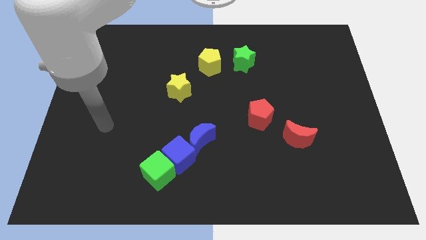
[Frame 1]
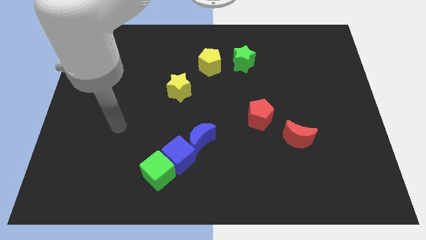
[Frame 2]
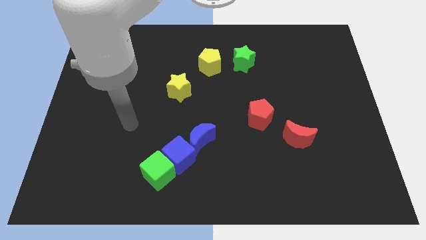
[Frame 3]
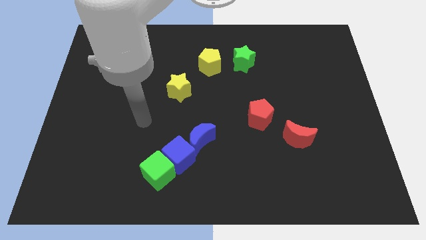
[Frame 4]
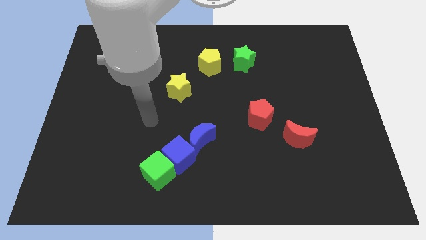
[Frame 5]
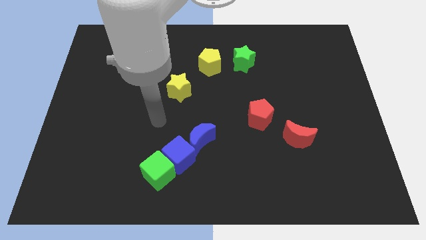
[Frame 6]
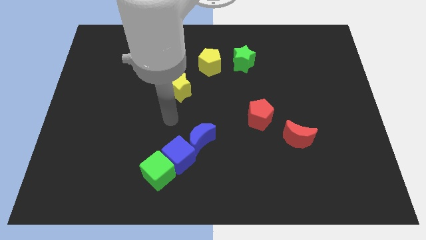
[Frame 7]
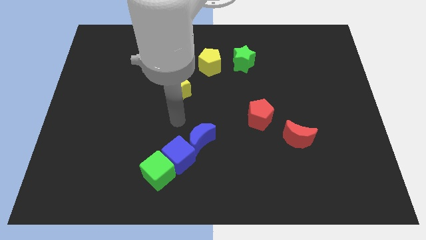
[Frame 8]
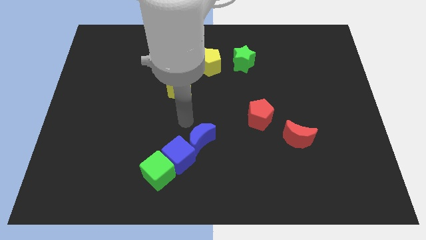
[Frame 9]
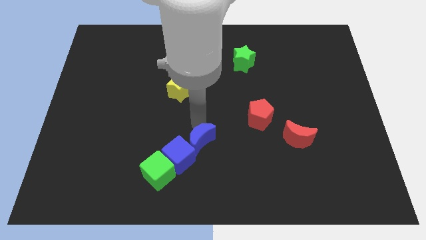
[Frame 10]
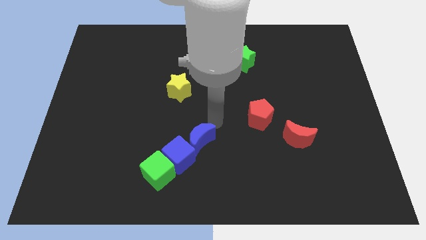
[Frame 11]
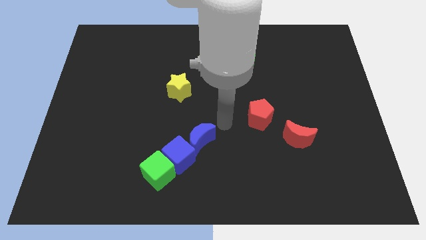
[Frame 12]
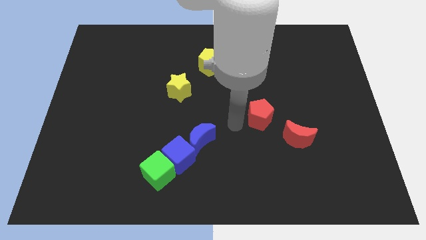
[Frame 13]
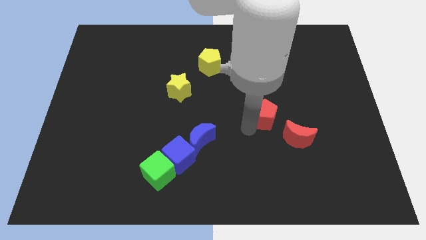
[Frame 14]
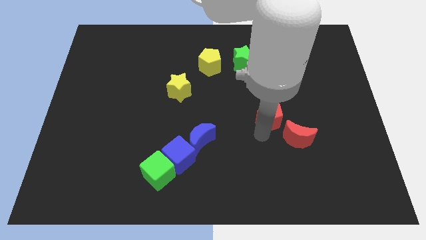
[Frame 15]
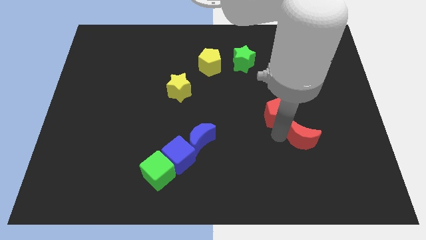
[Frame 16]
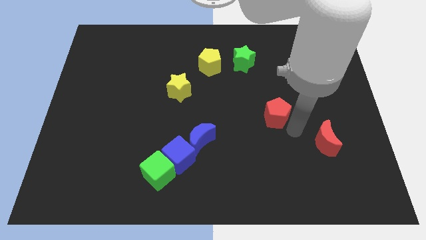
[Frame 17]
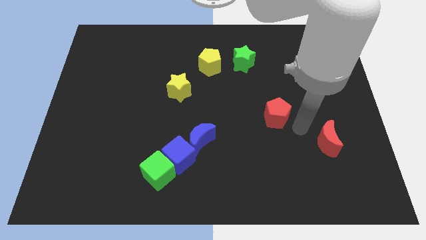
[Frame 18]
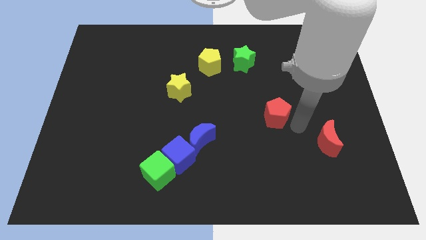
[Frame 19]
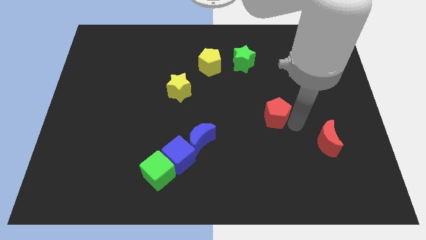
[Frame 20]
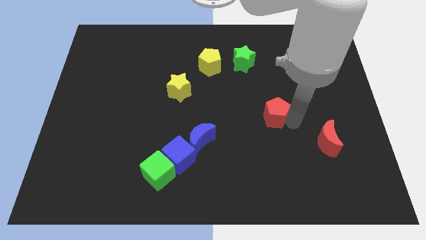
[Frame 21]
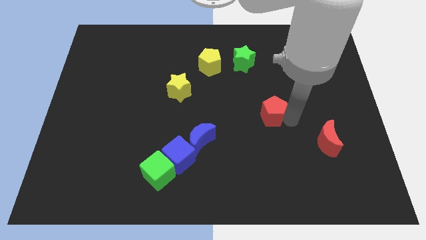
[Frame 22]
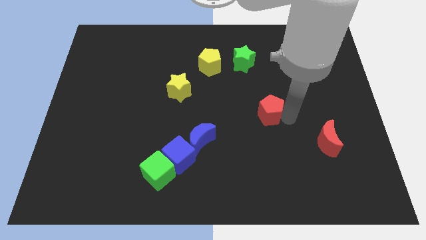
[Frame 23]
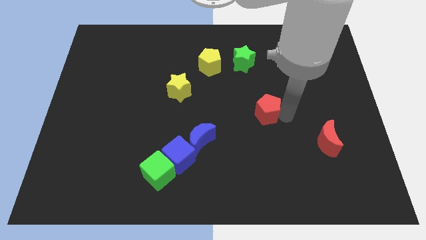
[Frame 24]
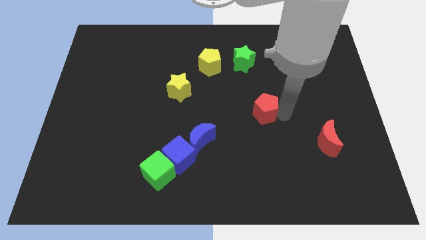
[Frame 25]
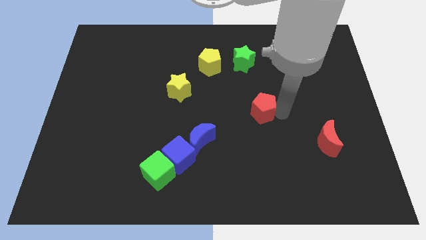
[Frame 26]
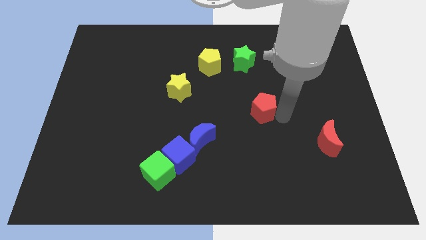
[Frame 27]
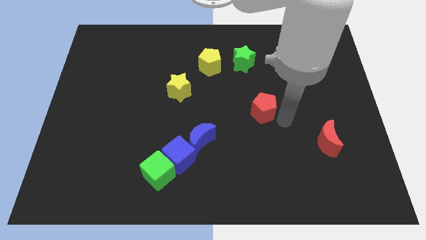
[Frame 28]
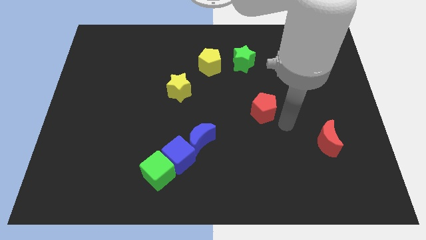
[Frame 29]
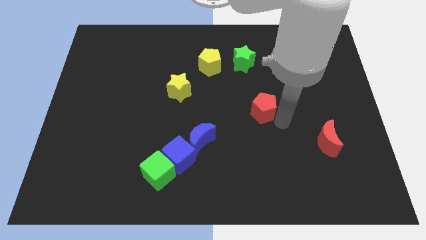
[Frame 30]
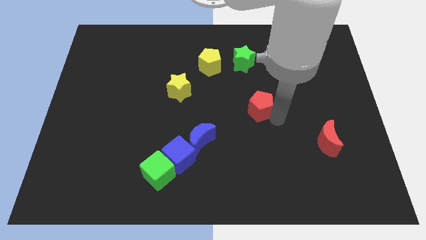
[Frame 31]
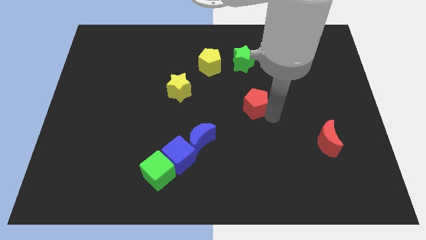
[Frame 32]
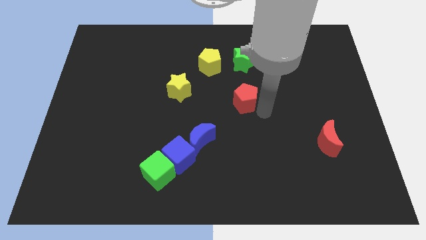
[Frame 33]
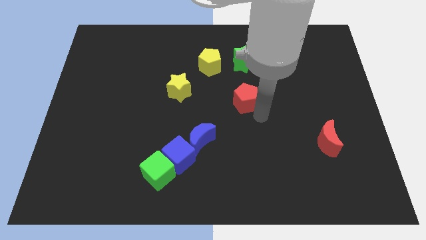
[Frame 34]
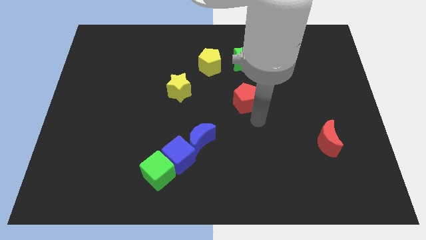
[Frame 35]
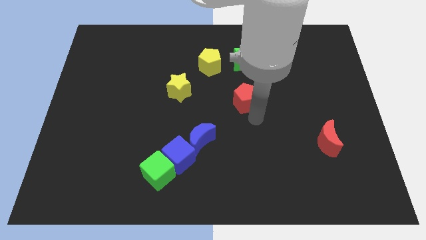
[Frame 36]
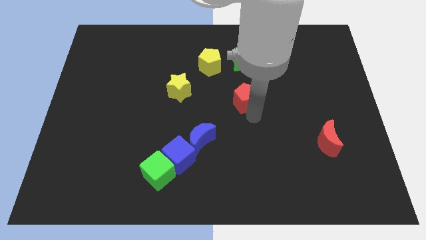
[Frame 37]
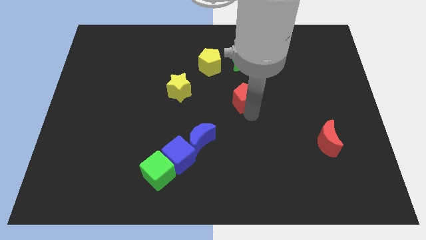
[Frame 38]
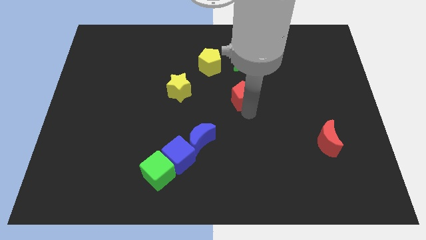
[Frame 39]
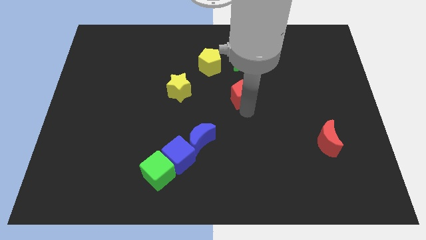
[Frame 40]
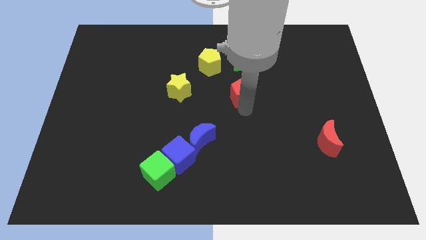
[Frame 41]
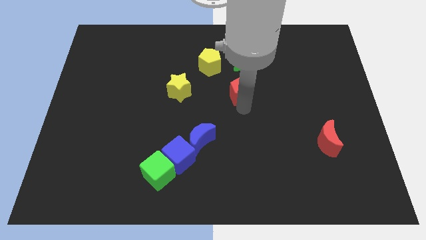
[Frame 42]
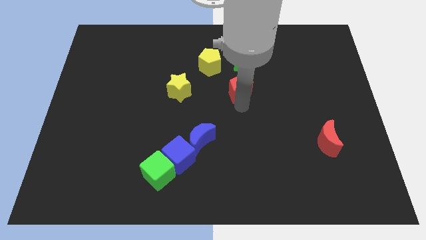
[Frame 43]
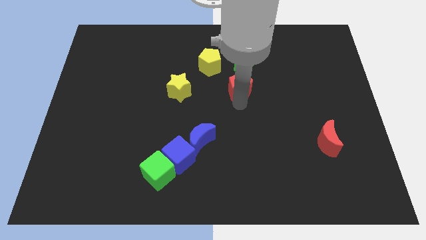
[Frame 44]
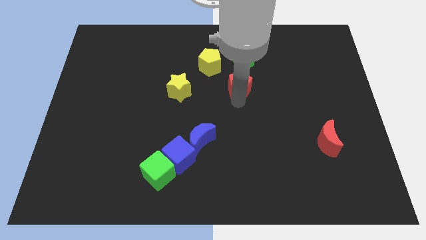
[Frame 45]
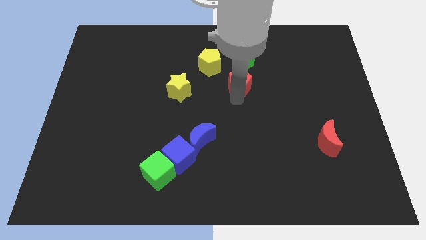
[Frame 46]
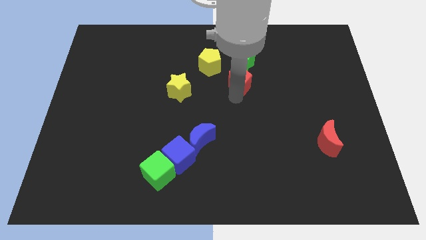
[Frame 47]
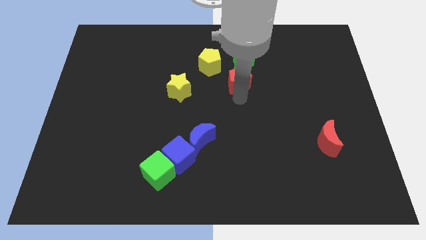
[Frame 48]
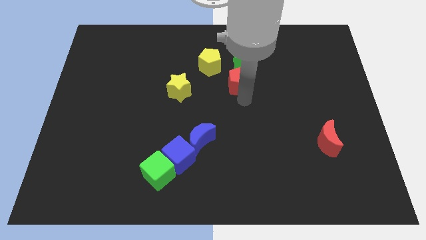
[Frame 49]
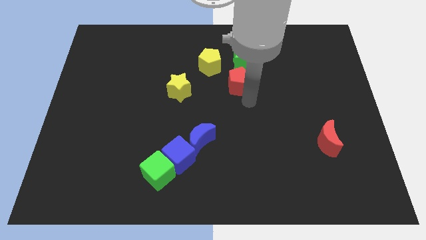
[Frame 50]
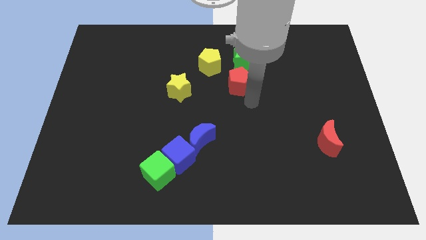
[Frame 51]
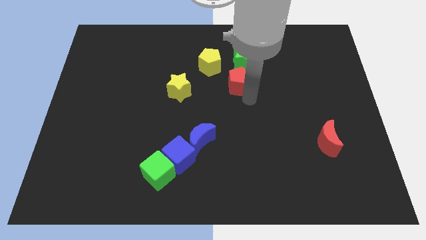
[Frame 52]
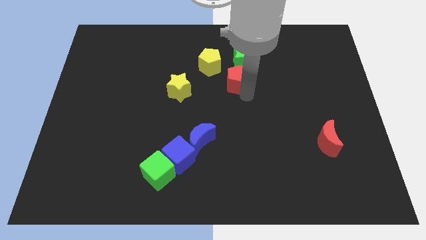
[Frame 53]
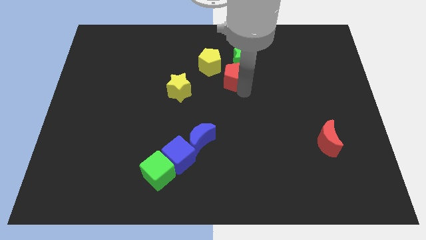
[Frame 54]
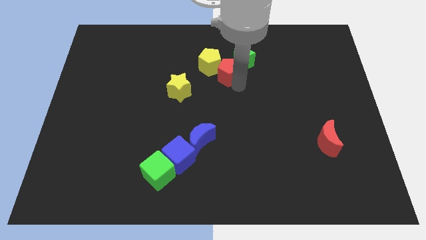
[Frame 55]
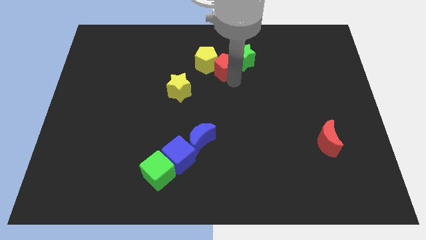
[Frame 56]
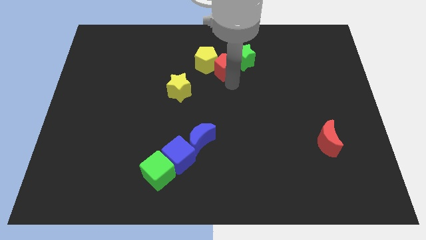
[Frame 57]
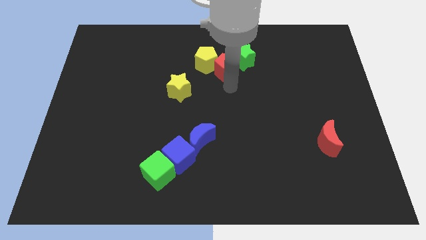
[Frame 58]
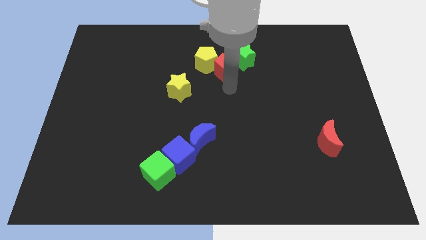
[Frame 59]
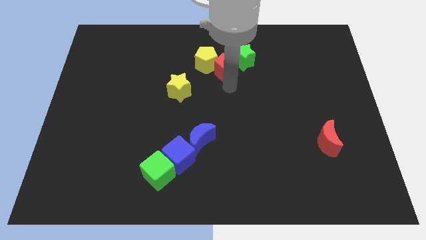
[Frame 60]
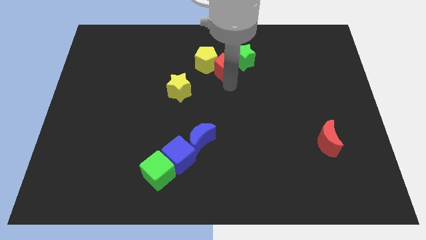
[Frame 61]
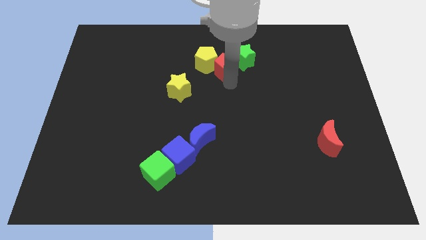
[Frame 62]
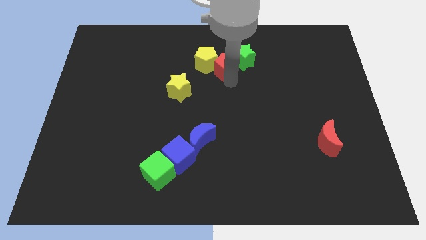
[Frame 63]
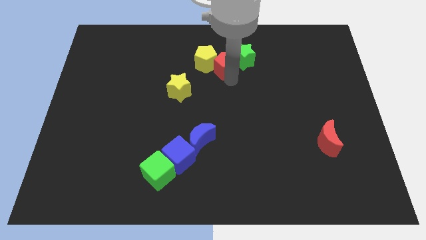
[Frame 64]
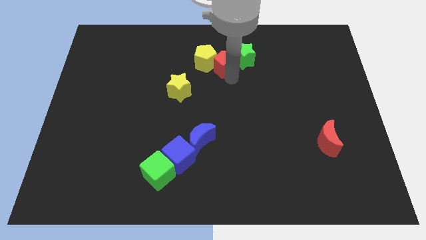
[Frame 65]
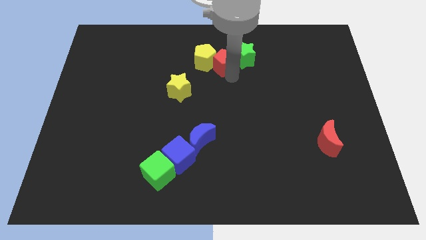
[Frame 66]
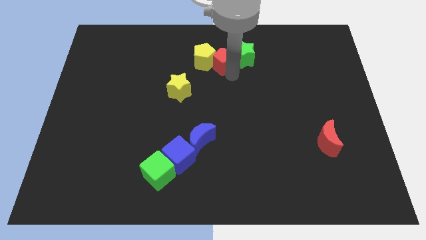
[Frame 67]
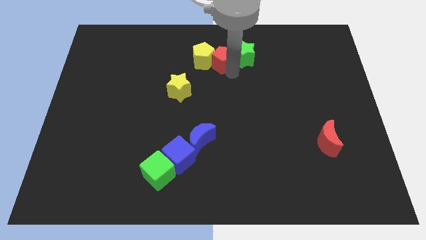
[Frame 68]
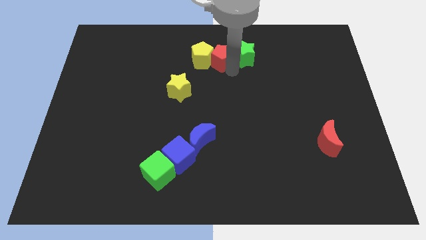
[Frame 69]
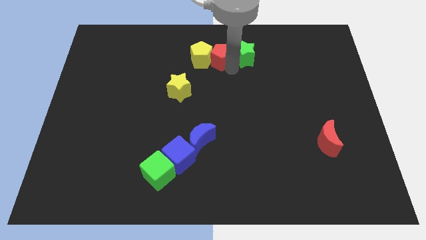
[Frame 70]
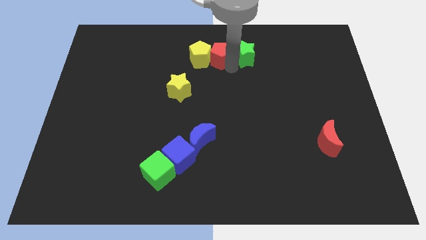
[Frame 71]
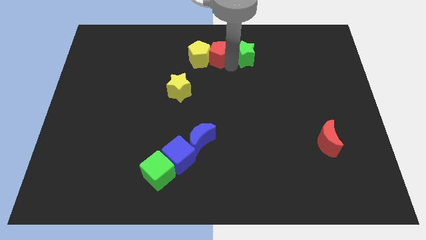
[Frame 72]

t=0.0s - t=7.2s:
put the red pentagon to the top

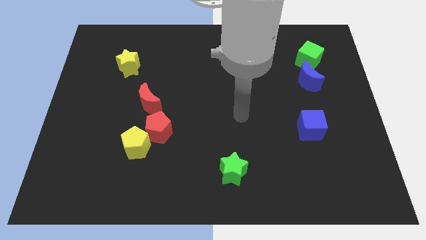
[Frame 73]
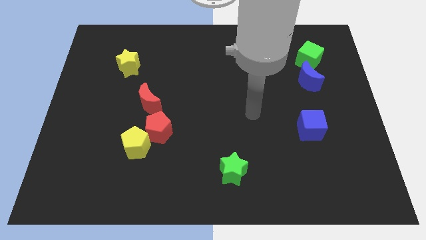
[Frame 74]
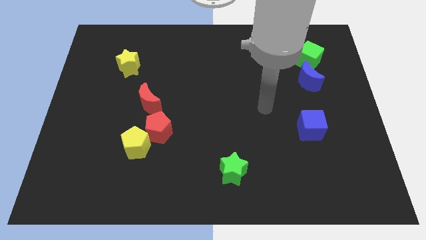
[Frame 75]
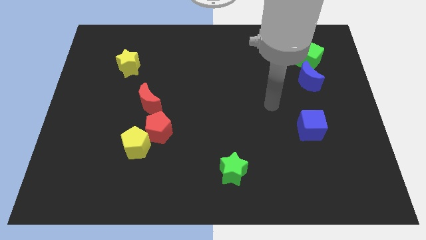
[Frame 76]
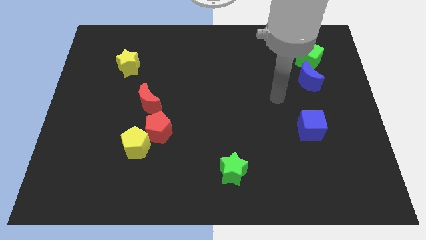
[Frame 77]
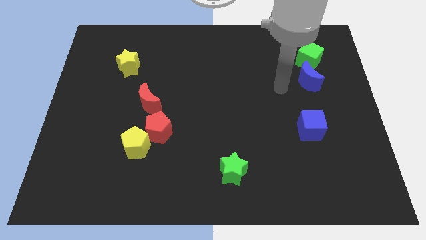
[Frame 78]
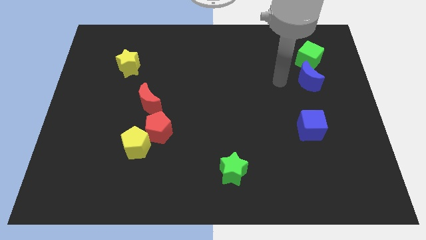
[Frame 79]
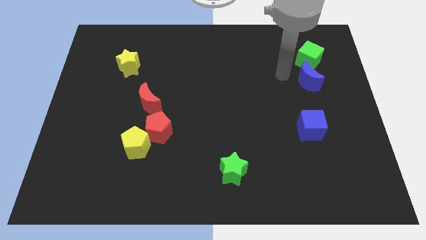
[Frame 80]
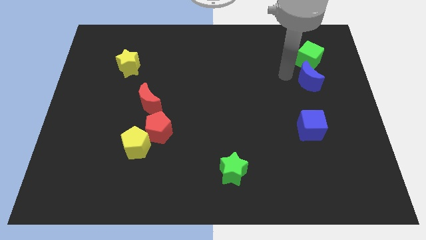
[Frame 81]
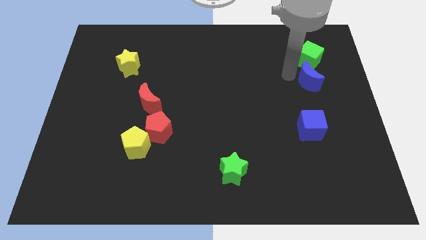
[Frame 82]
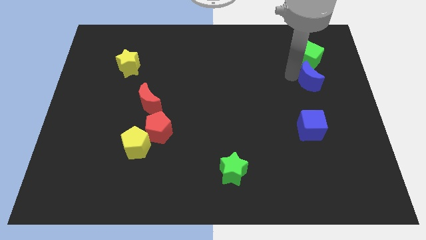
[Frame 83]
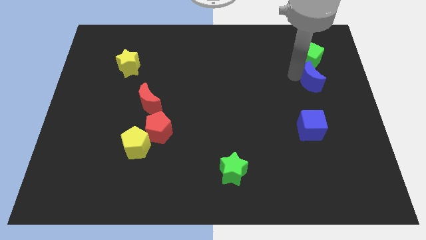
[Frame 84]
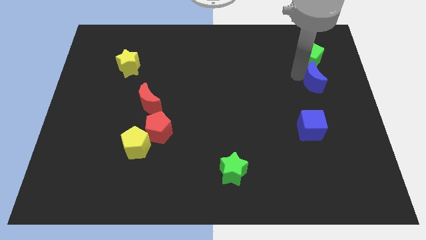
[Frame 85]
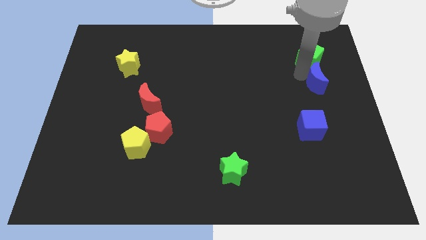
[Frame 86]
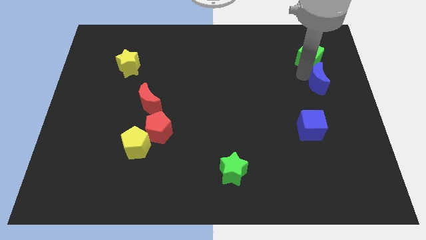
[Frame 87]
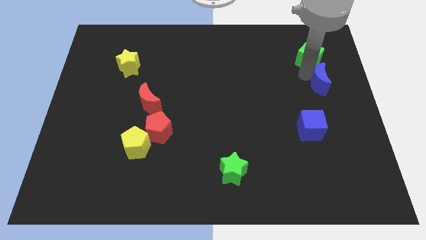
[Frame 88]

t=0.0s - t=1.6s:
push the blue moon to the right side of the board
